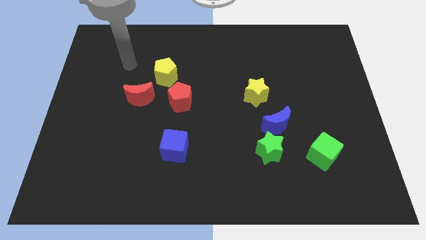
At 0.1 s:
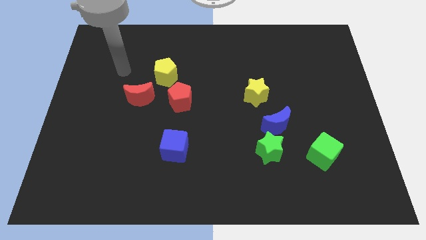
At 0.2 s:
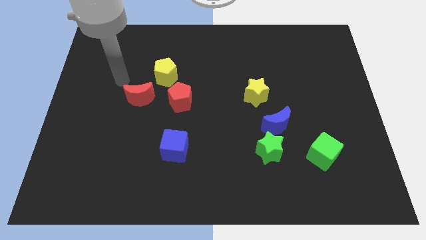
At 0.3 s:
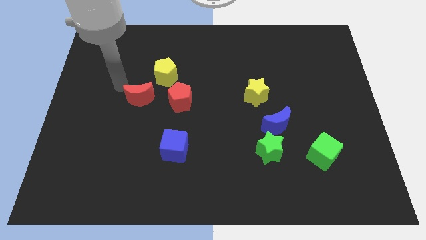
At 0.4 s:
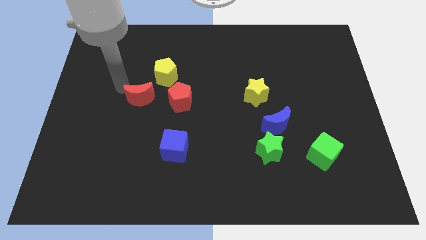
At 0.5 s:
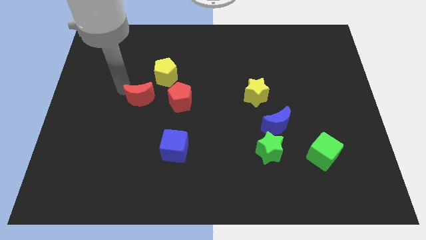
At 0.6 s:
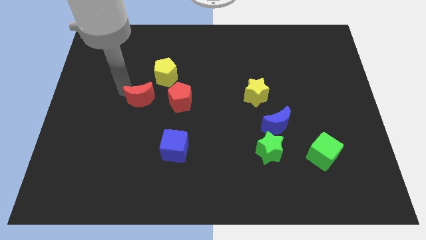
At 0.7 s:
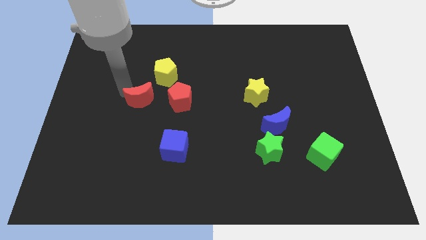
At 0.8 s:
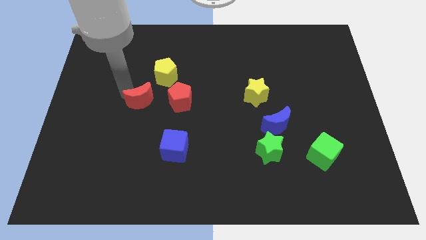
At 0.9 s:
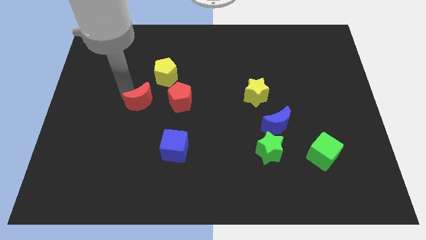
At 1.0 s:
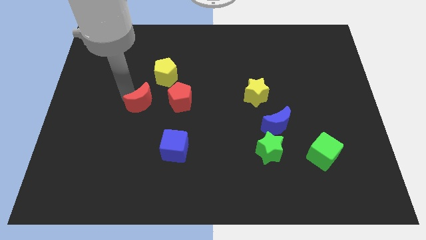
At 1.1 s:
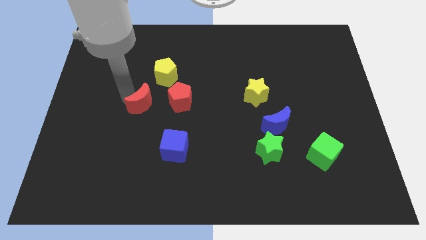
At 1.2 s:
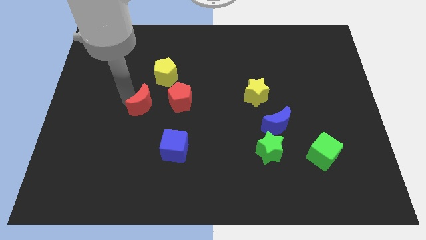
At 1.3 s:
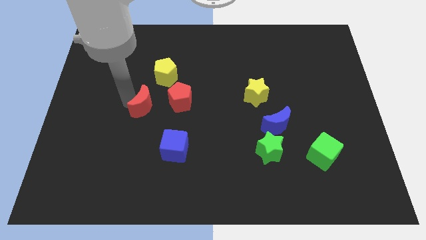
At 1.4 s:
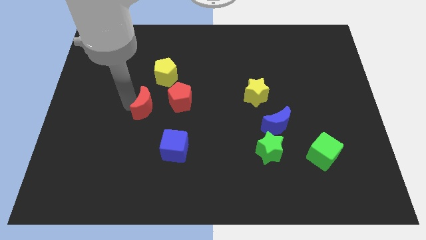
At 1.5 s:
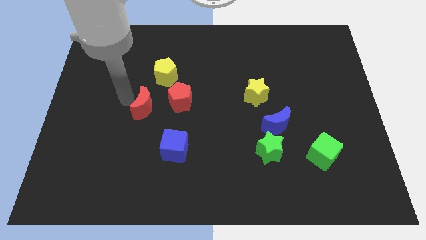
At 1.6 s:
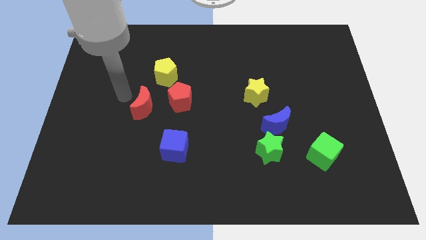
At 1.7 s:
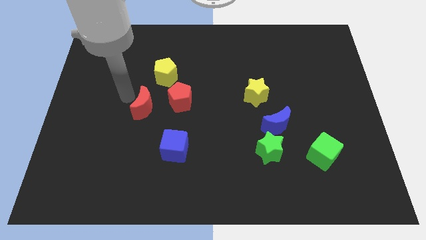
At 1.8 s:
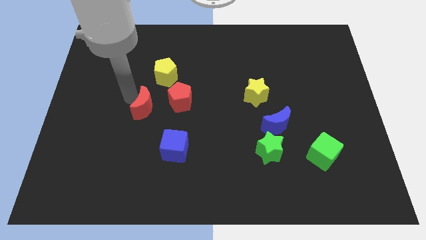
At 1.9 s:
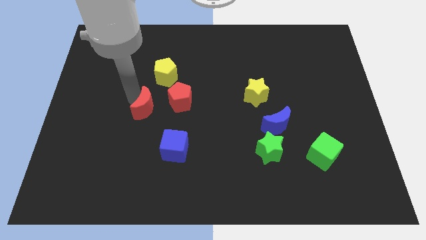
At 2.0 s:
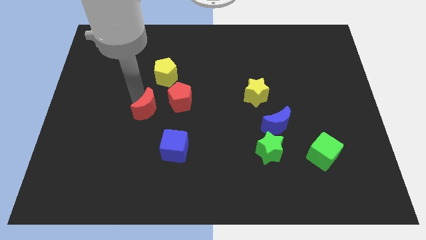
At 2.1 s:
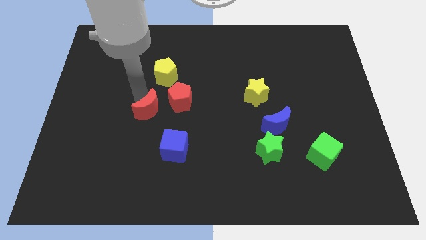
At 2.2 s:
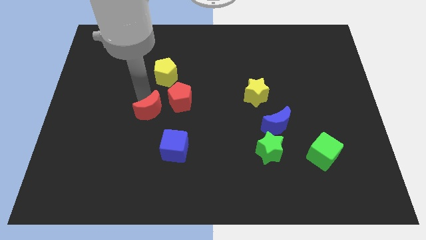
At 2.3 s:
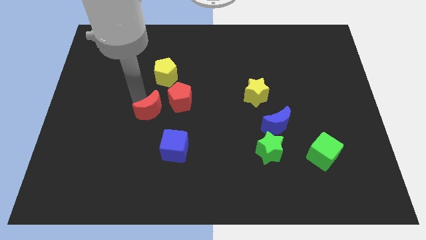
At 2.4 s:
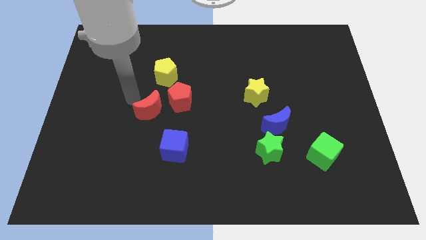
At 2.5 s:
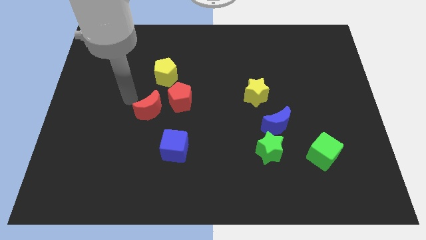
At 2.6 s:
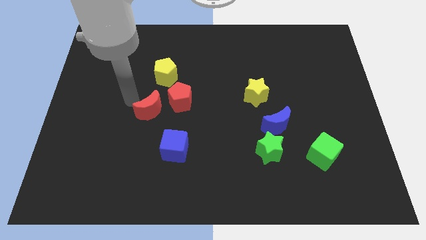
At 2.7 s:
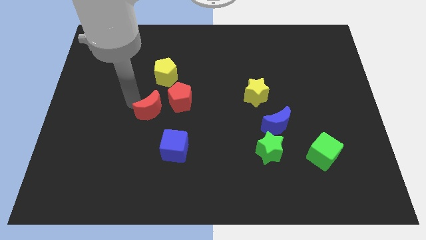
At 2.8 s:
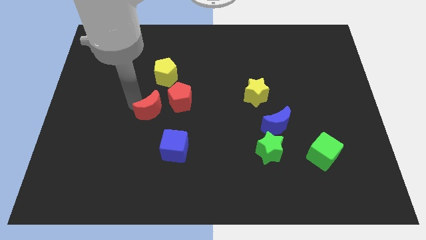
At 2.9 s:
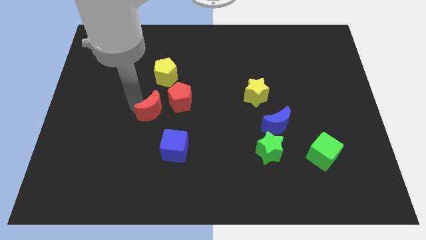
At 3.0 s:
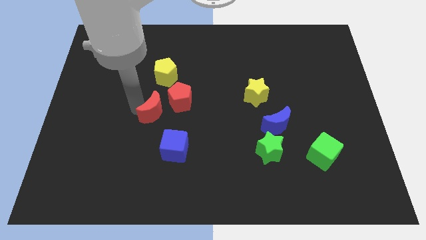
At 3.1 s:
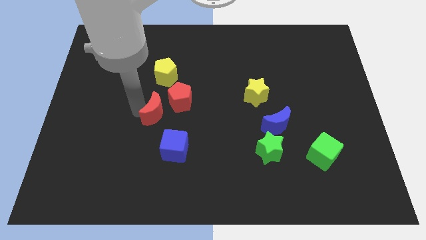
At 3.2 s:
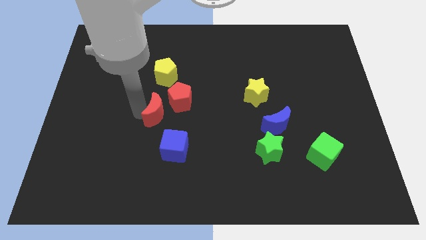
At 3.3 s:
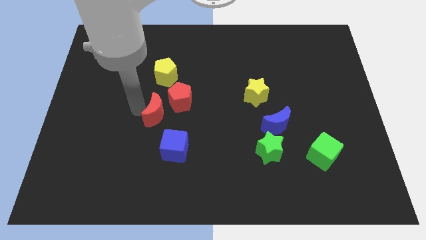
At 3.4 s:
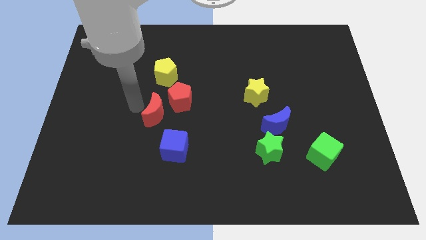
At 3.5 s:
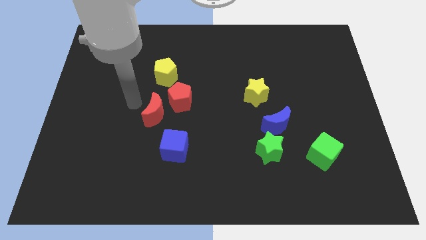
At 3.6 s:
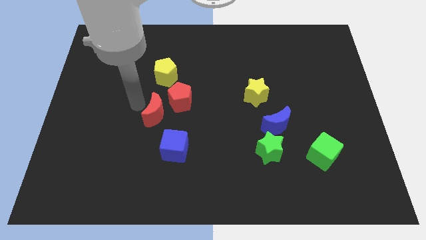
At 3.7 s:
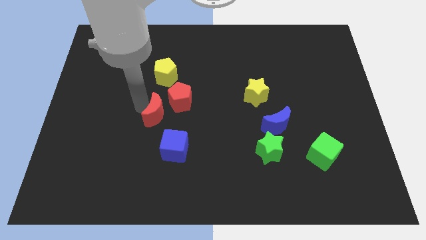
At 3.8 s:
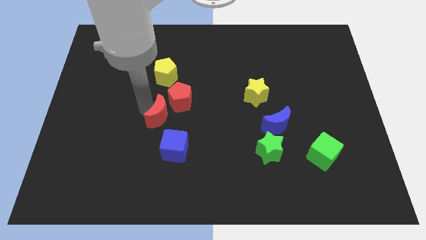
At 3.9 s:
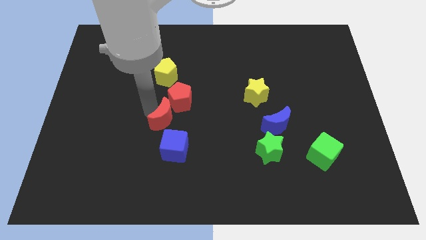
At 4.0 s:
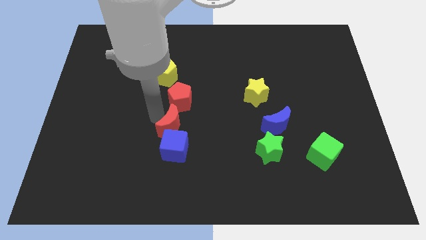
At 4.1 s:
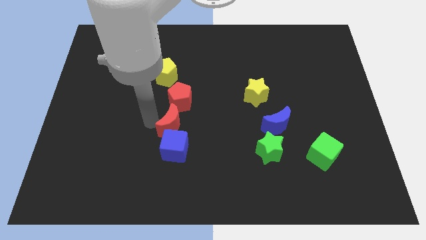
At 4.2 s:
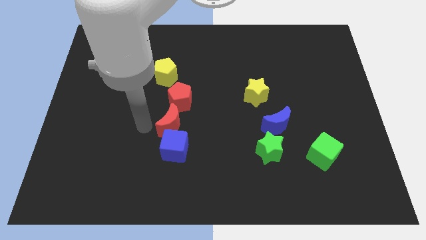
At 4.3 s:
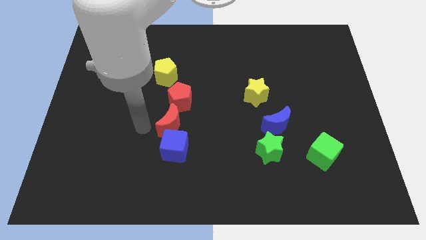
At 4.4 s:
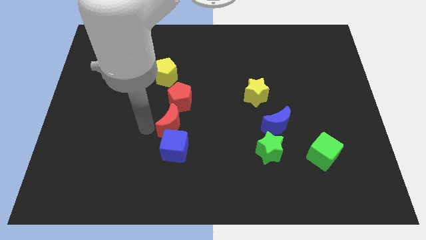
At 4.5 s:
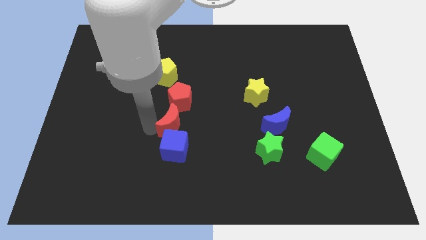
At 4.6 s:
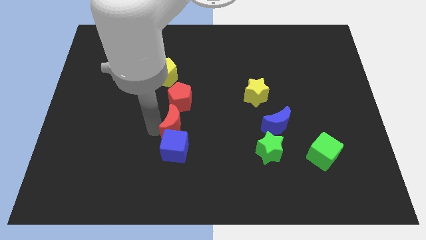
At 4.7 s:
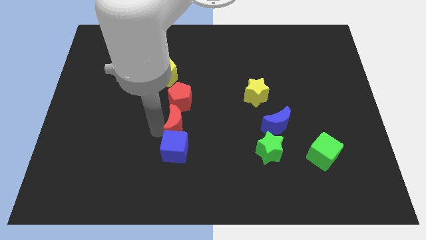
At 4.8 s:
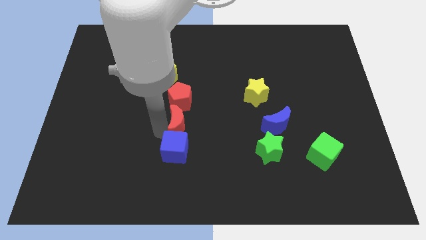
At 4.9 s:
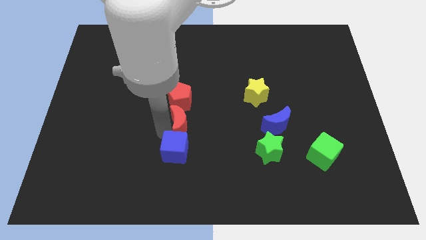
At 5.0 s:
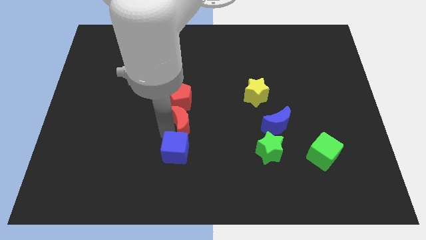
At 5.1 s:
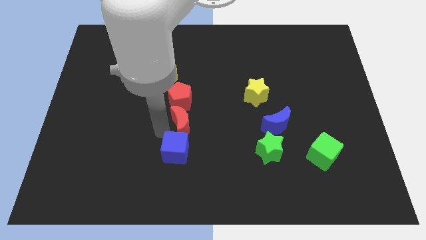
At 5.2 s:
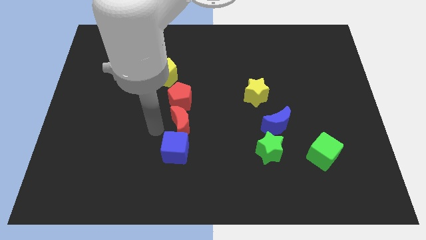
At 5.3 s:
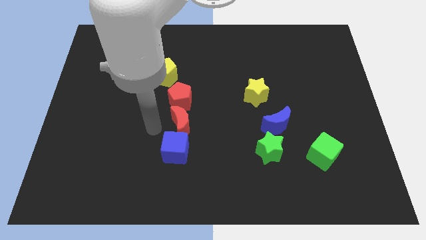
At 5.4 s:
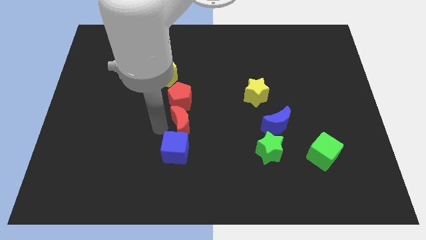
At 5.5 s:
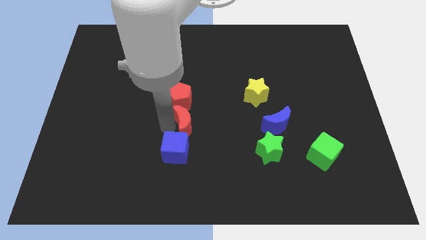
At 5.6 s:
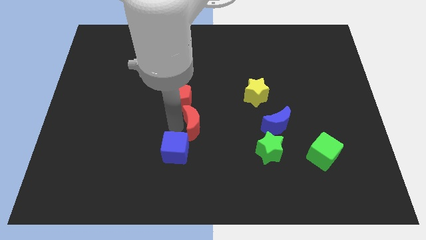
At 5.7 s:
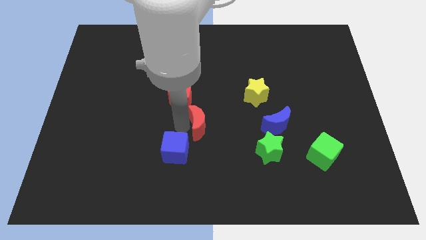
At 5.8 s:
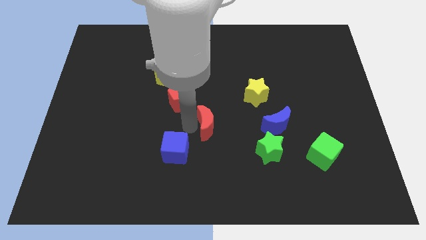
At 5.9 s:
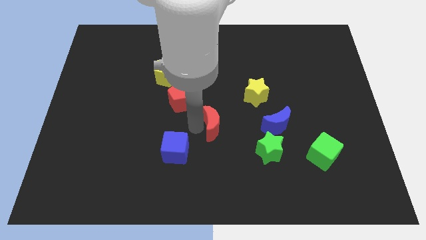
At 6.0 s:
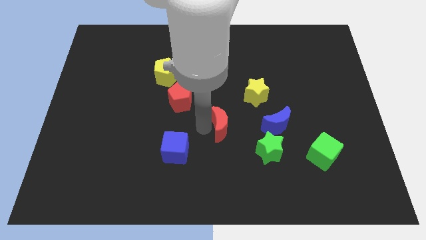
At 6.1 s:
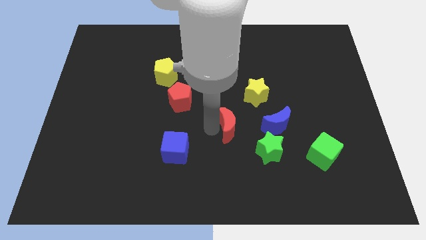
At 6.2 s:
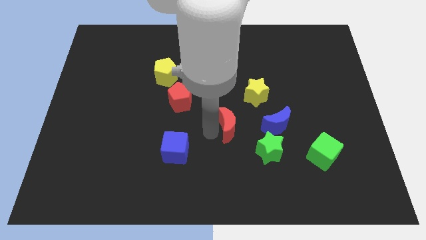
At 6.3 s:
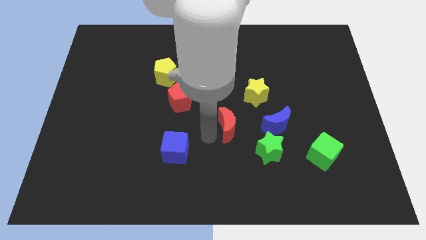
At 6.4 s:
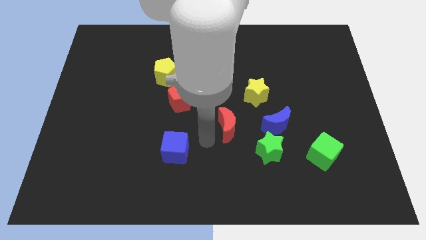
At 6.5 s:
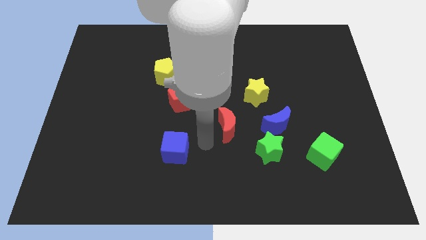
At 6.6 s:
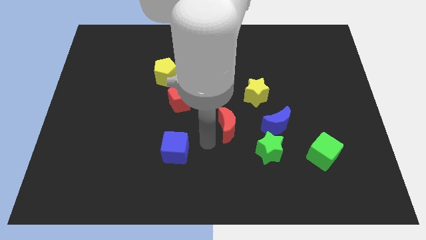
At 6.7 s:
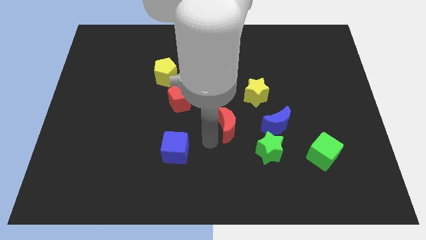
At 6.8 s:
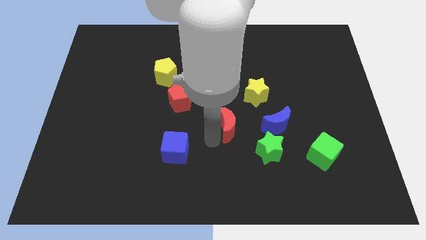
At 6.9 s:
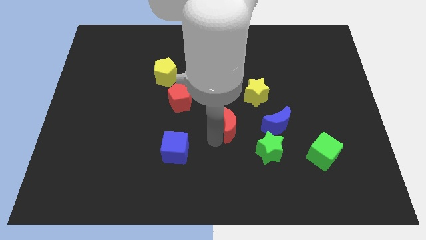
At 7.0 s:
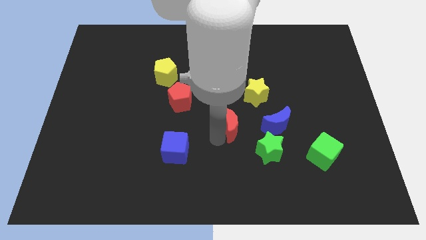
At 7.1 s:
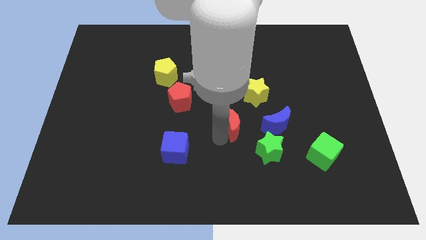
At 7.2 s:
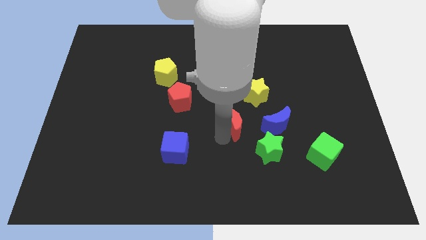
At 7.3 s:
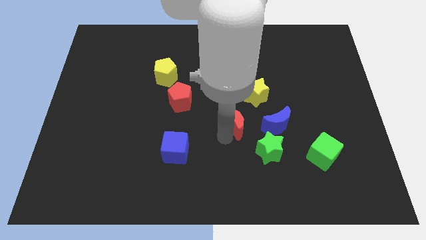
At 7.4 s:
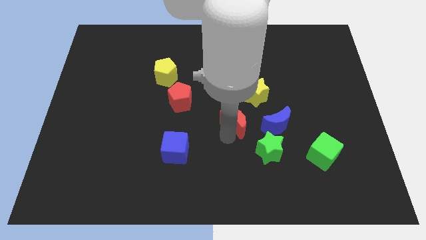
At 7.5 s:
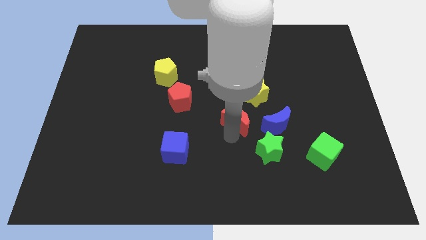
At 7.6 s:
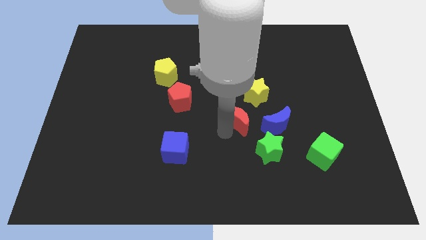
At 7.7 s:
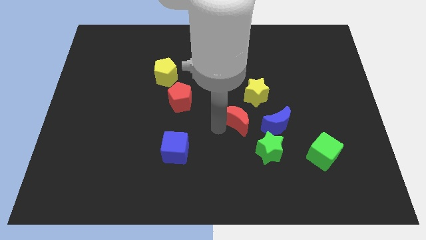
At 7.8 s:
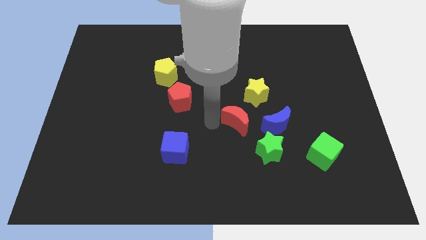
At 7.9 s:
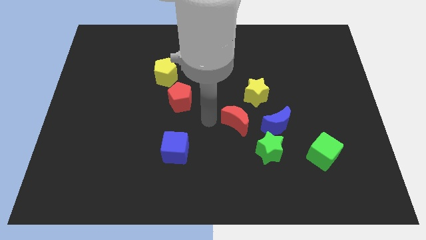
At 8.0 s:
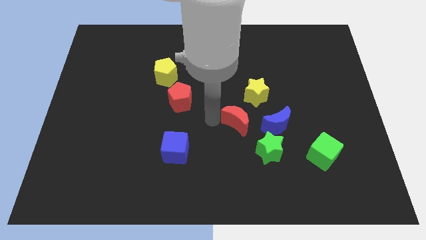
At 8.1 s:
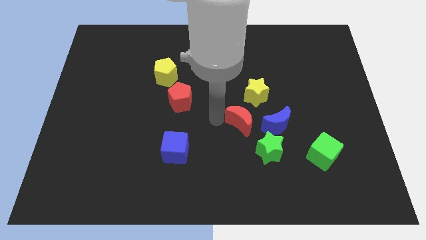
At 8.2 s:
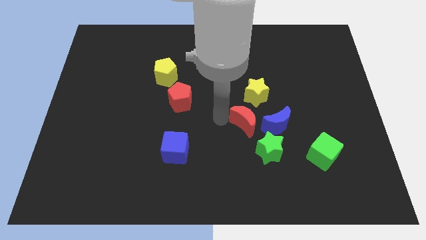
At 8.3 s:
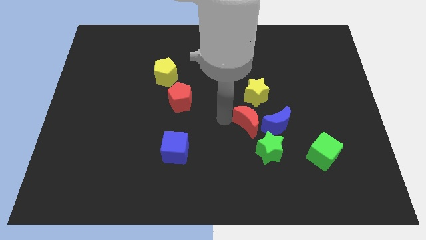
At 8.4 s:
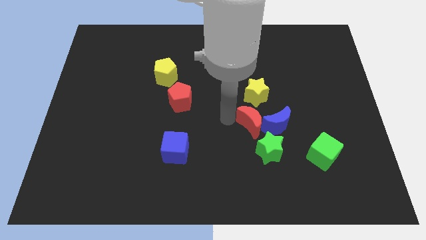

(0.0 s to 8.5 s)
move the red moon towards the blue moon
